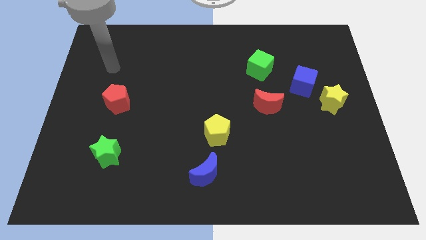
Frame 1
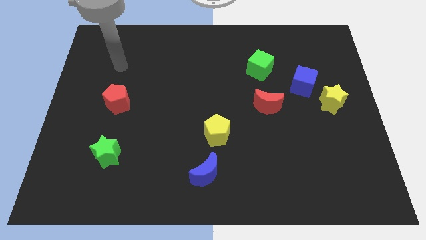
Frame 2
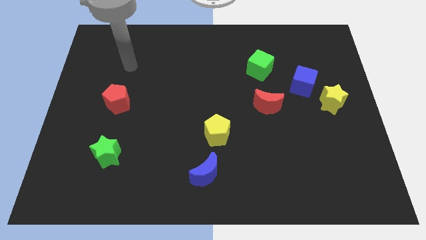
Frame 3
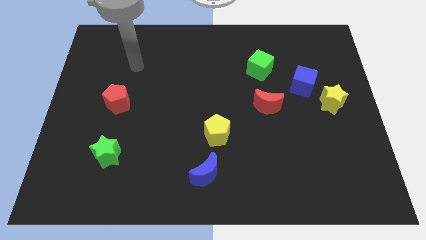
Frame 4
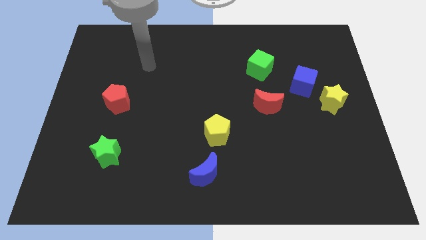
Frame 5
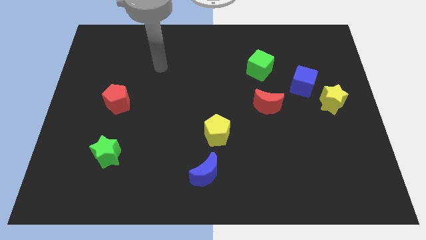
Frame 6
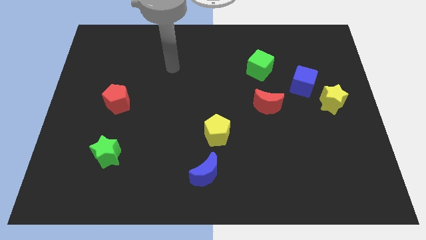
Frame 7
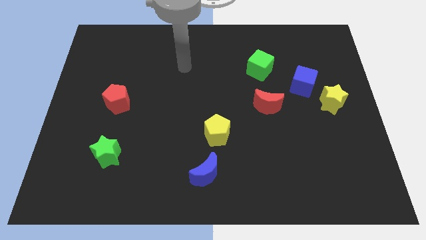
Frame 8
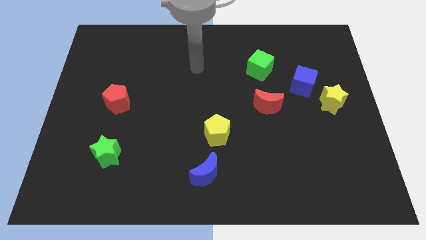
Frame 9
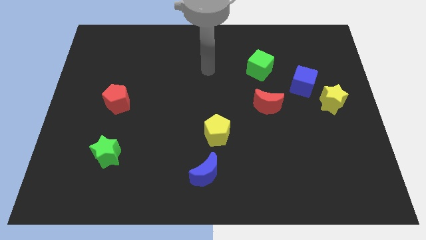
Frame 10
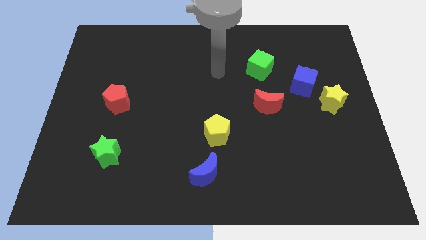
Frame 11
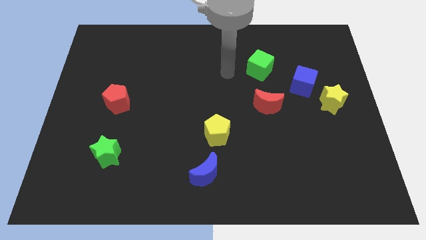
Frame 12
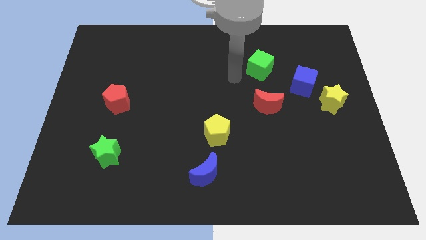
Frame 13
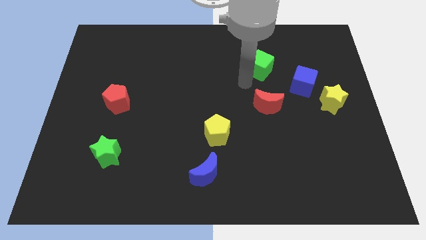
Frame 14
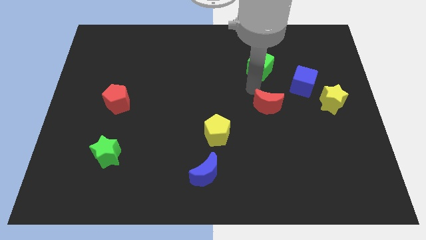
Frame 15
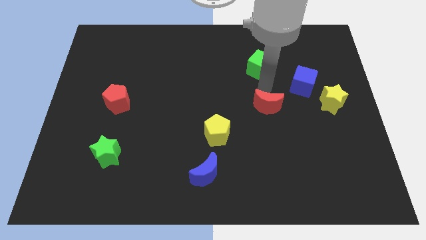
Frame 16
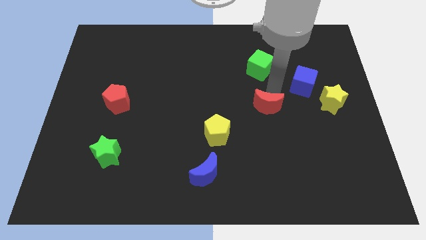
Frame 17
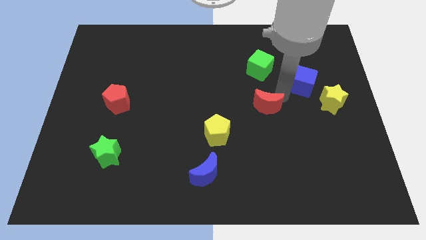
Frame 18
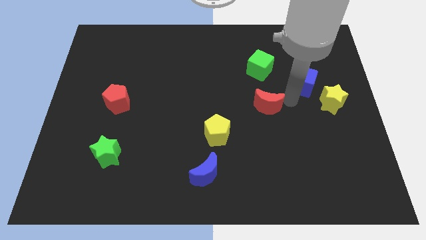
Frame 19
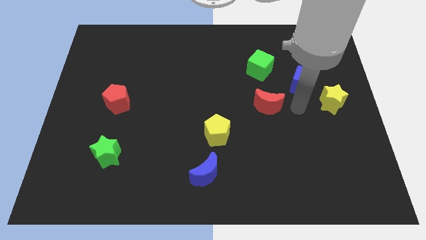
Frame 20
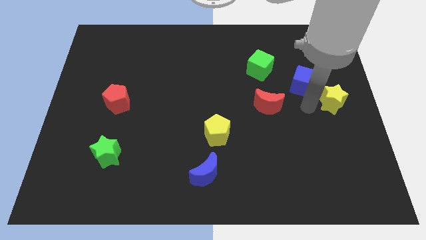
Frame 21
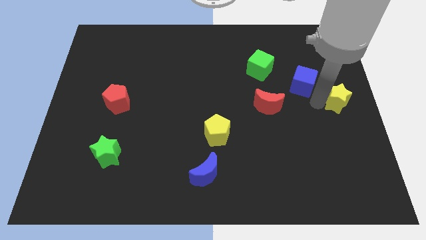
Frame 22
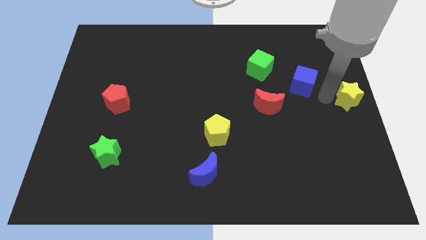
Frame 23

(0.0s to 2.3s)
move the blue cube away from the yellow star

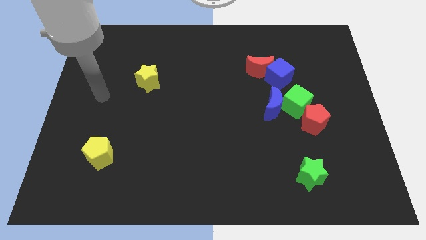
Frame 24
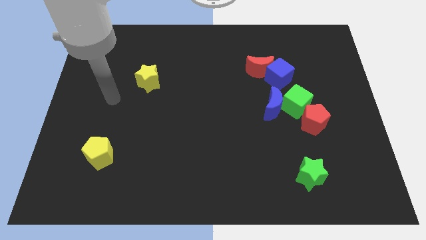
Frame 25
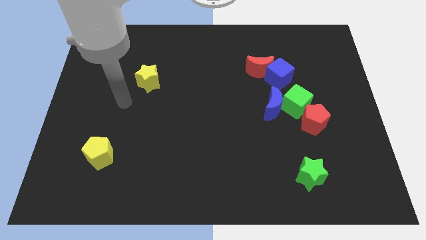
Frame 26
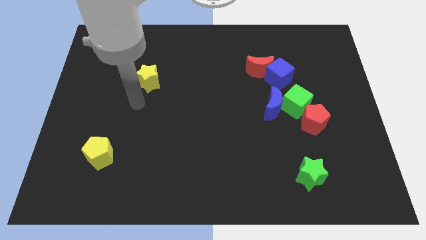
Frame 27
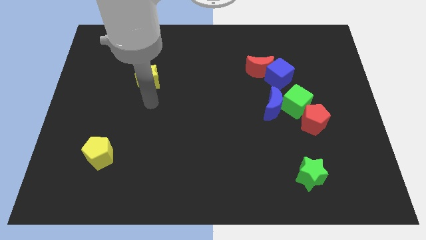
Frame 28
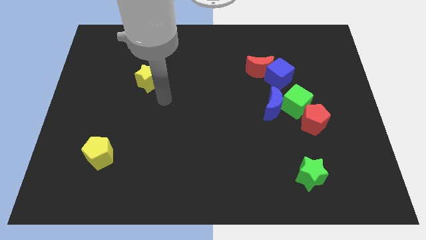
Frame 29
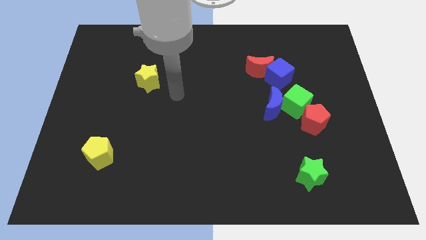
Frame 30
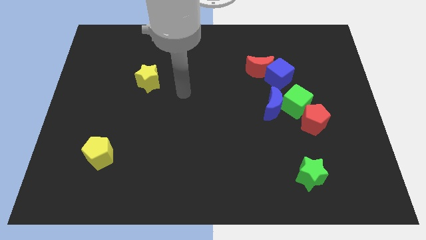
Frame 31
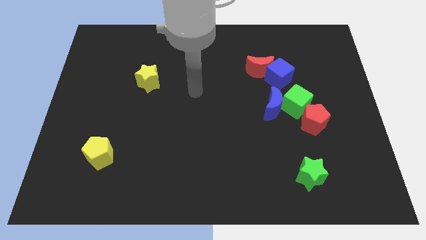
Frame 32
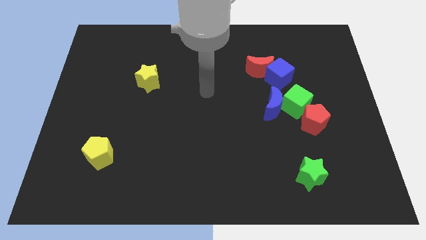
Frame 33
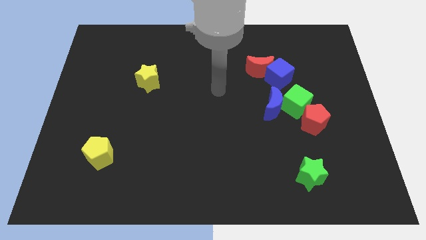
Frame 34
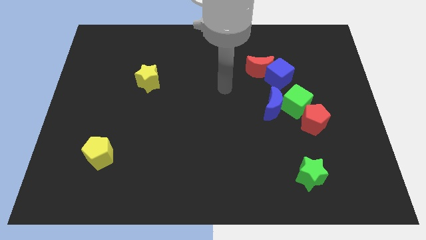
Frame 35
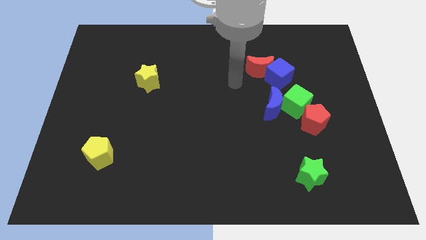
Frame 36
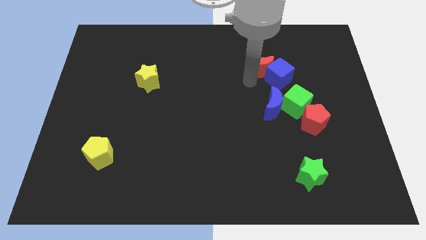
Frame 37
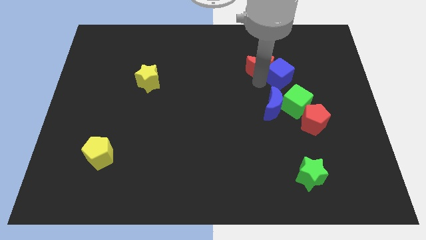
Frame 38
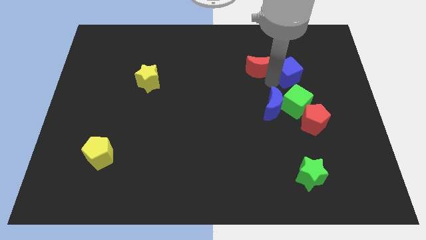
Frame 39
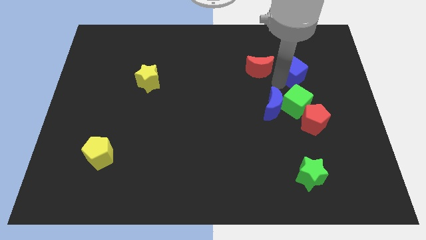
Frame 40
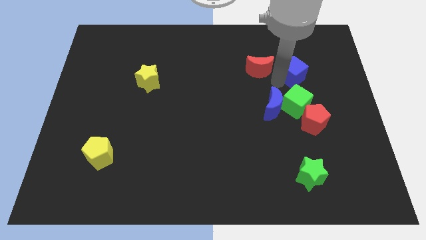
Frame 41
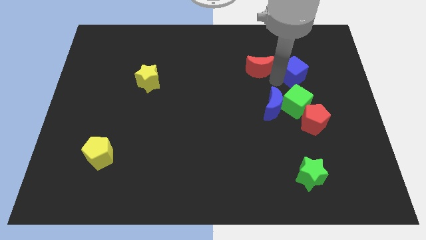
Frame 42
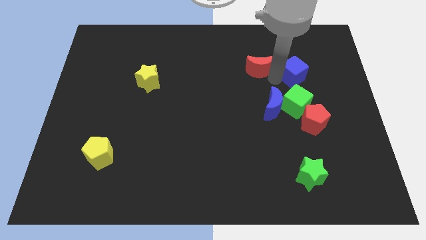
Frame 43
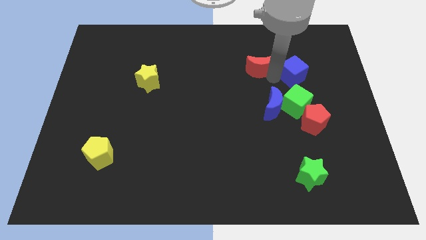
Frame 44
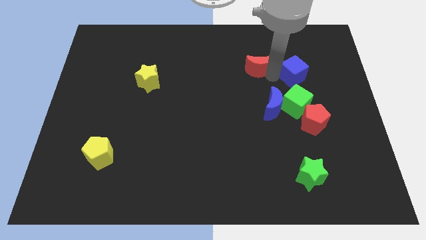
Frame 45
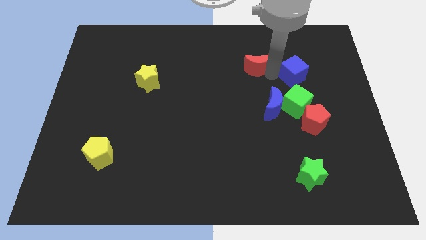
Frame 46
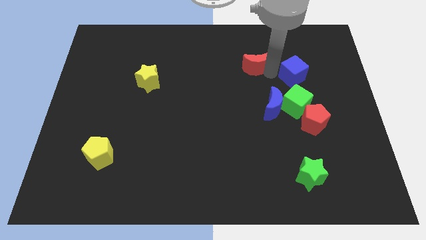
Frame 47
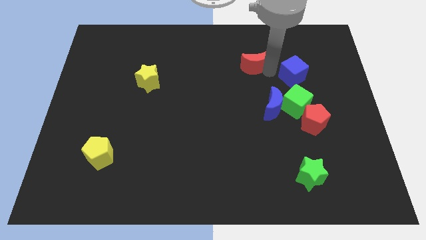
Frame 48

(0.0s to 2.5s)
separate the red moon from the blue cube

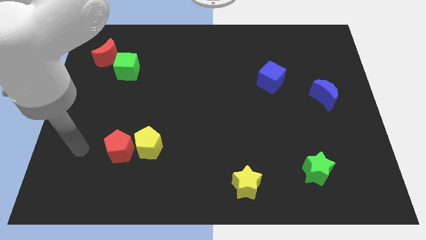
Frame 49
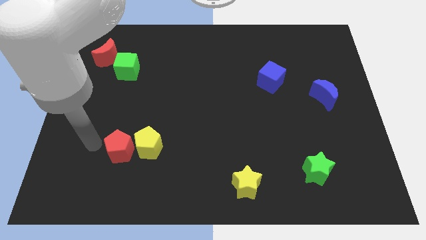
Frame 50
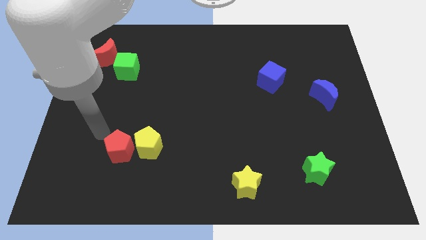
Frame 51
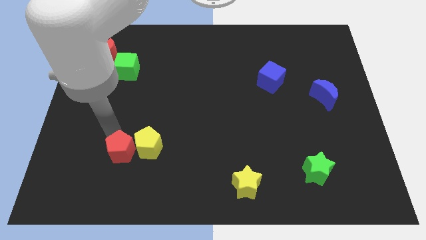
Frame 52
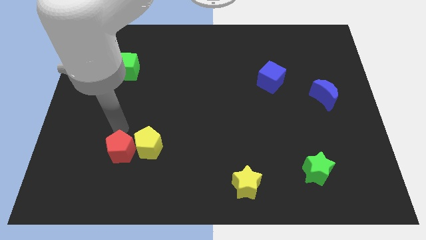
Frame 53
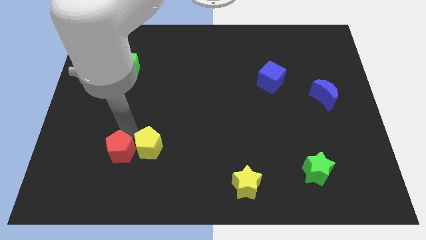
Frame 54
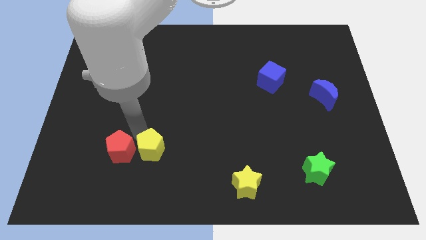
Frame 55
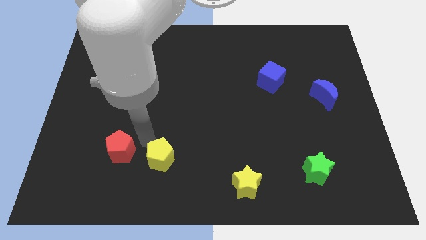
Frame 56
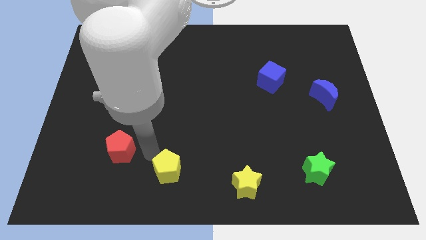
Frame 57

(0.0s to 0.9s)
move the red pentagon away from the yellow pentagon

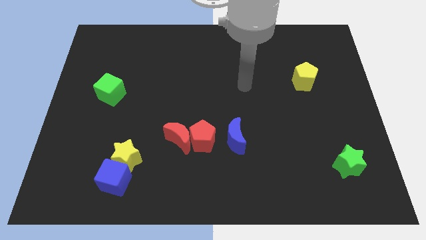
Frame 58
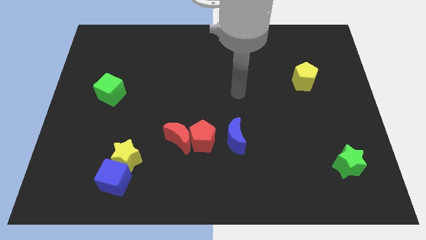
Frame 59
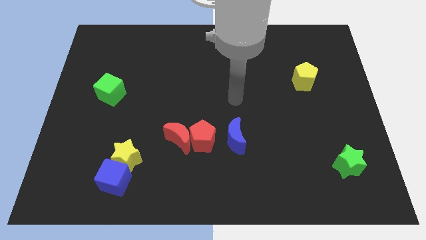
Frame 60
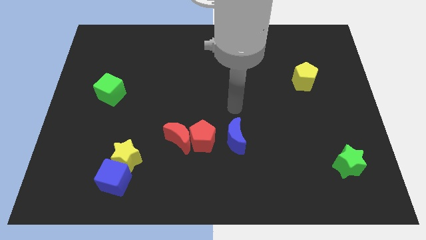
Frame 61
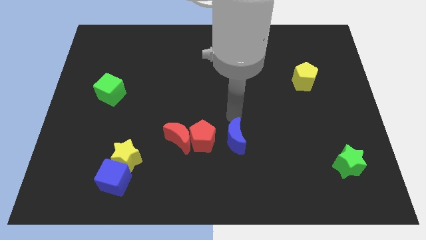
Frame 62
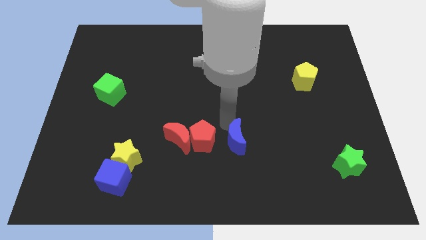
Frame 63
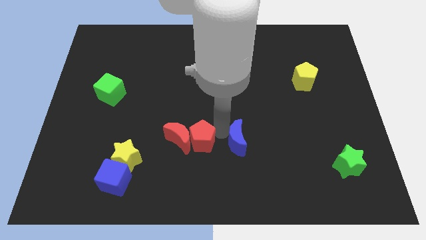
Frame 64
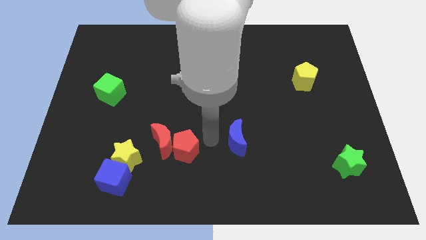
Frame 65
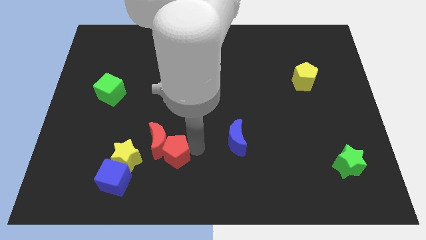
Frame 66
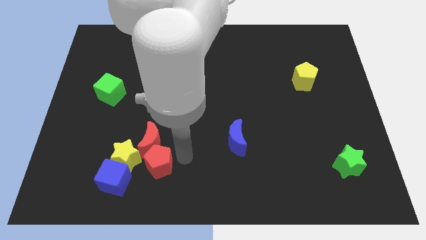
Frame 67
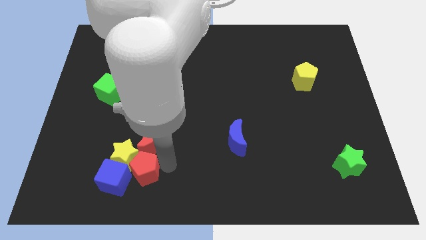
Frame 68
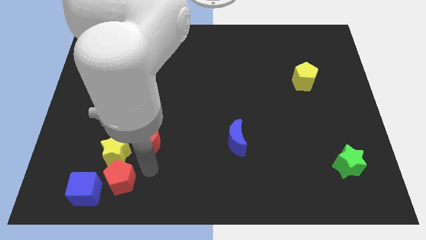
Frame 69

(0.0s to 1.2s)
pull the red moon apart from the red pentagon

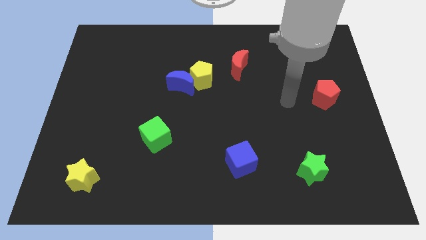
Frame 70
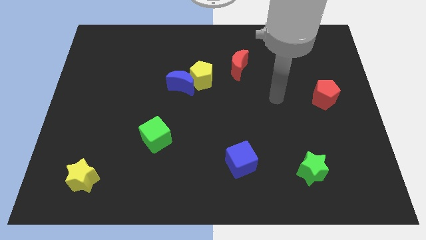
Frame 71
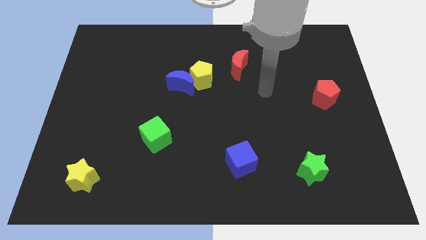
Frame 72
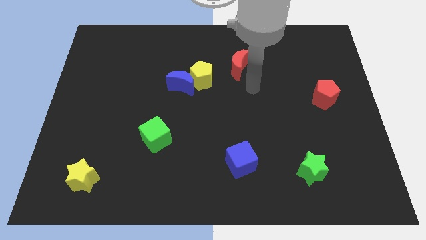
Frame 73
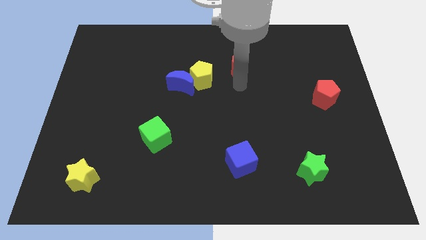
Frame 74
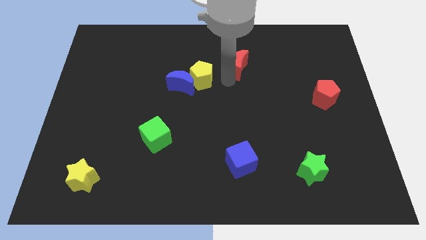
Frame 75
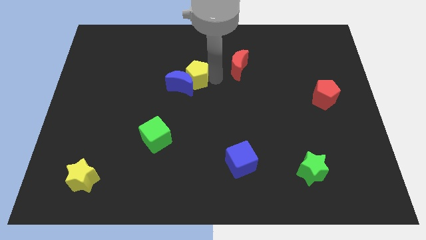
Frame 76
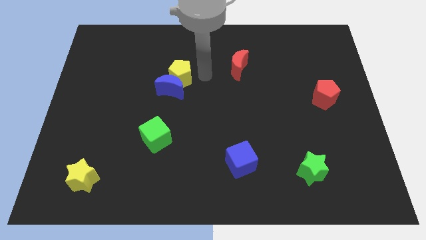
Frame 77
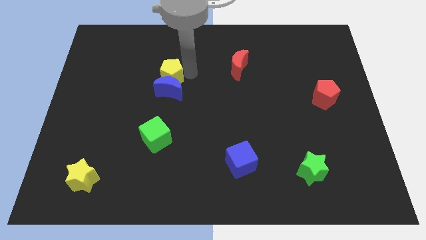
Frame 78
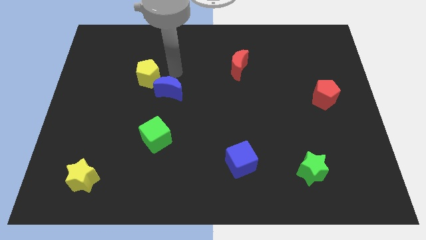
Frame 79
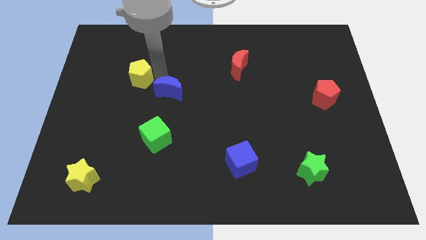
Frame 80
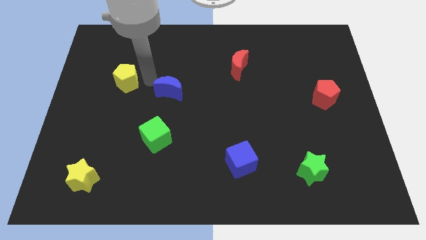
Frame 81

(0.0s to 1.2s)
separate the blue moon from the yellow pentagon

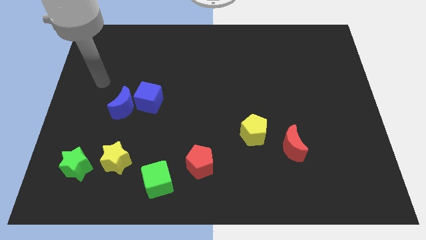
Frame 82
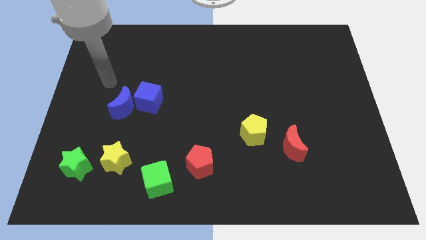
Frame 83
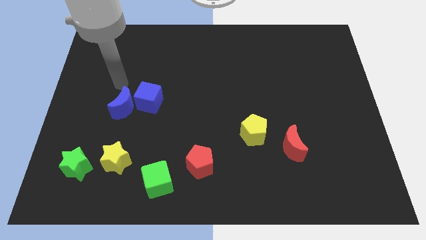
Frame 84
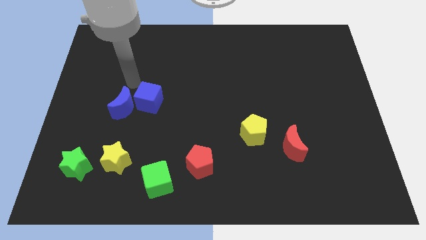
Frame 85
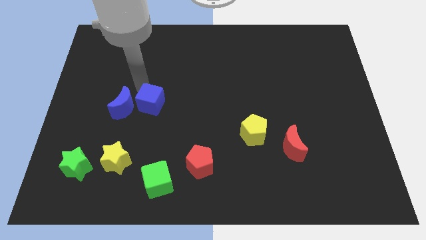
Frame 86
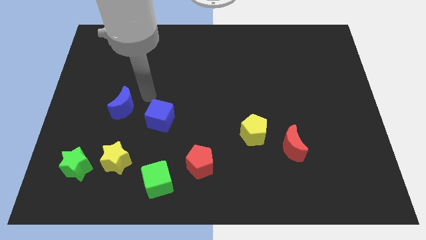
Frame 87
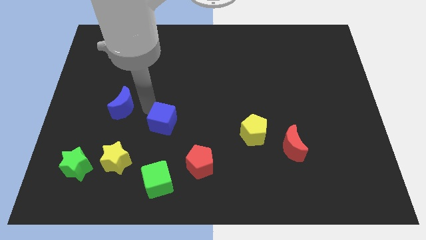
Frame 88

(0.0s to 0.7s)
separate the blue moon from the blue cube

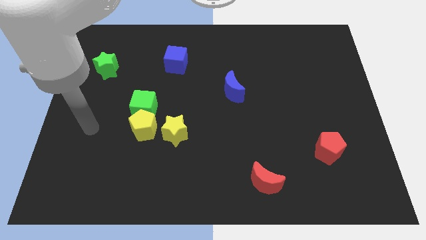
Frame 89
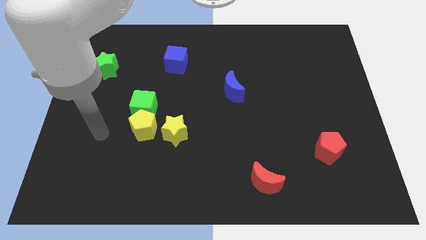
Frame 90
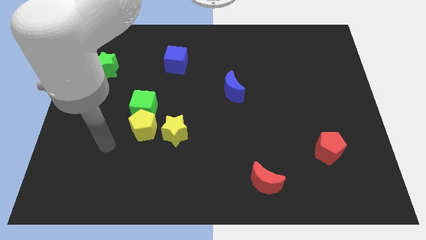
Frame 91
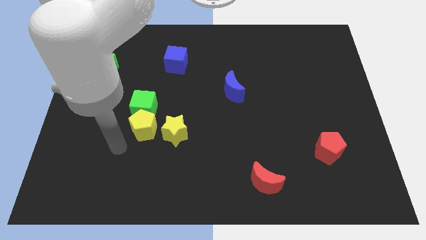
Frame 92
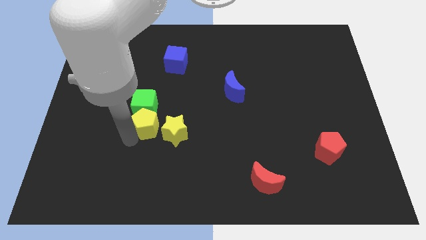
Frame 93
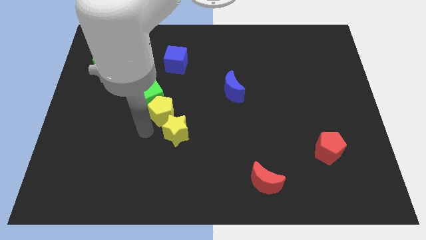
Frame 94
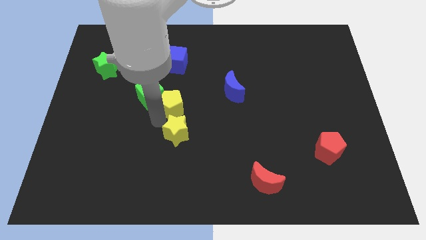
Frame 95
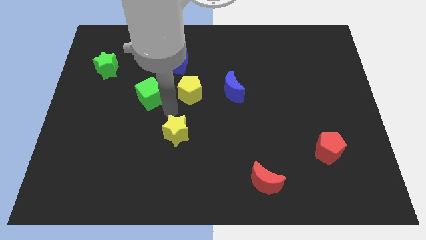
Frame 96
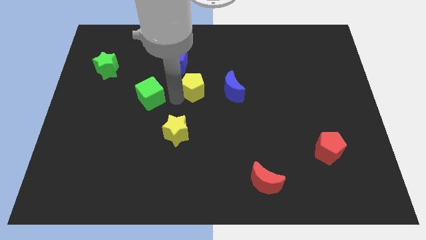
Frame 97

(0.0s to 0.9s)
separate the green cube from the yellow pentagon
